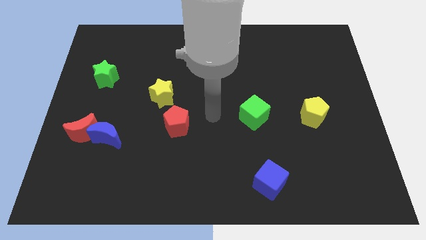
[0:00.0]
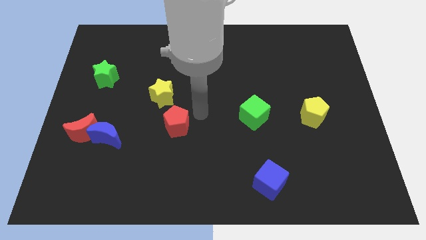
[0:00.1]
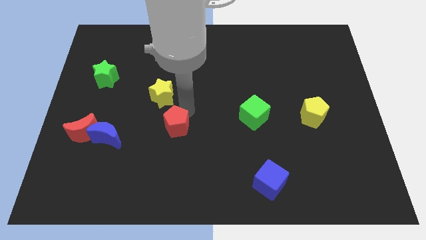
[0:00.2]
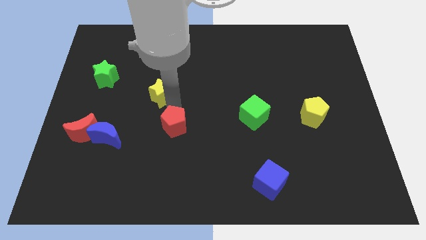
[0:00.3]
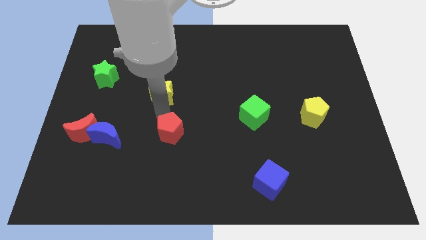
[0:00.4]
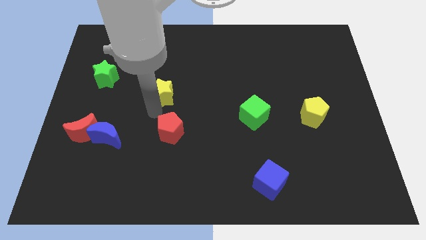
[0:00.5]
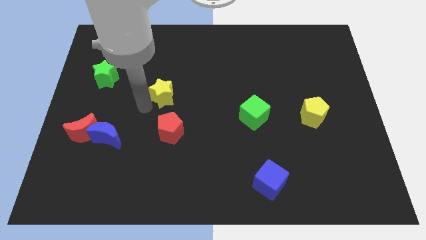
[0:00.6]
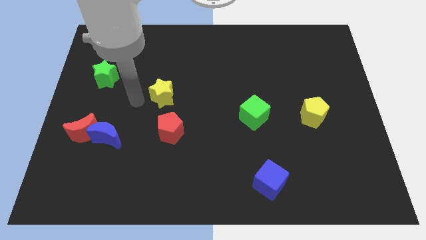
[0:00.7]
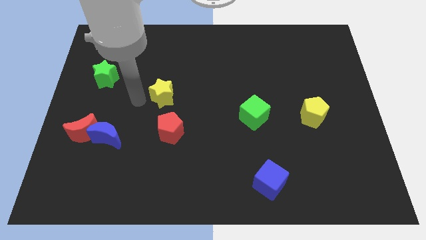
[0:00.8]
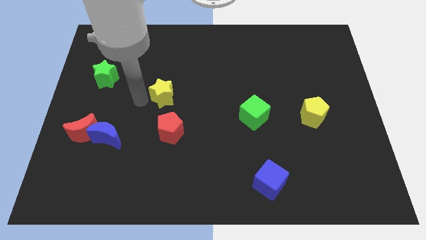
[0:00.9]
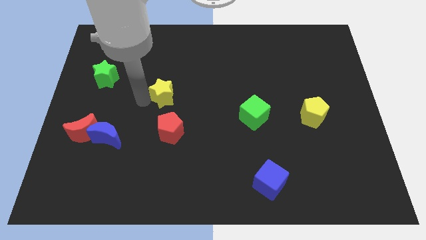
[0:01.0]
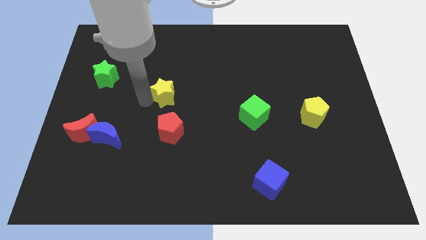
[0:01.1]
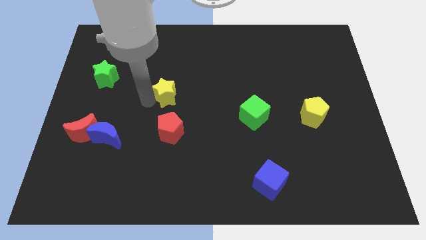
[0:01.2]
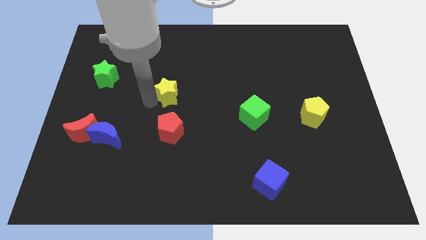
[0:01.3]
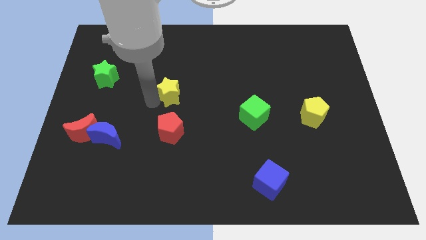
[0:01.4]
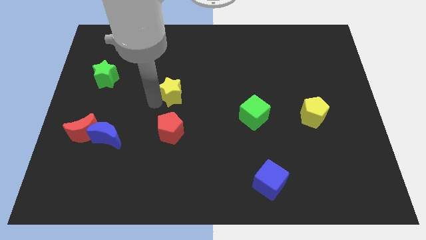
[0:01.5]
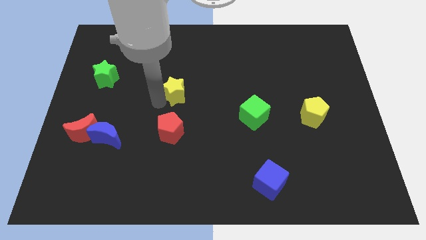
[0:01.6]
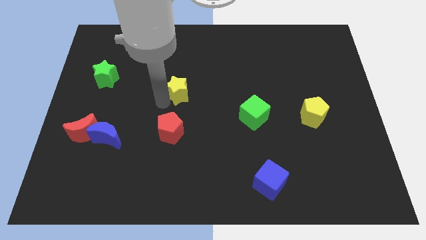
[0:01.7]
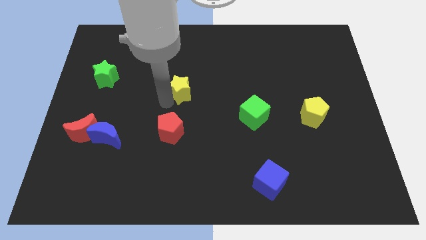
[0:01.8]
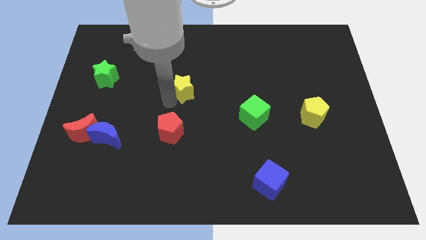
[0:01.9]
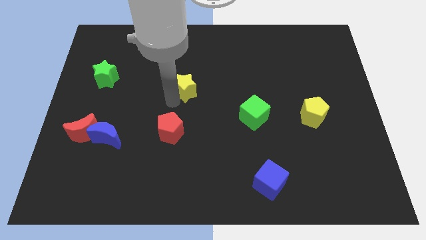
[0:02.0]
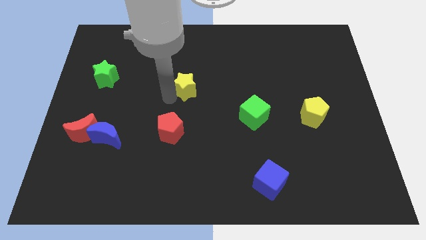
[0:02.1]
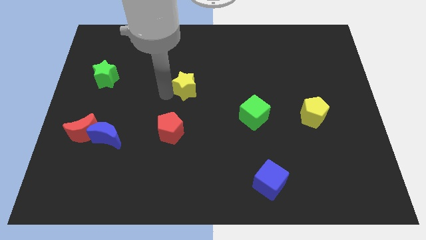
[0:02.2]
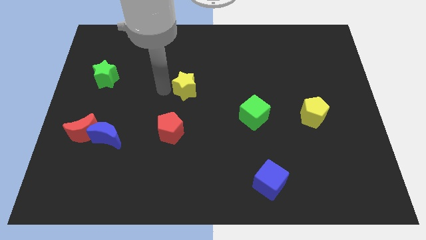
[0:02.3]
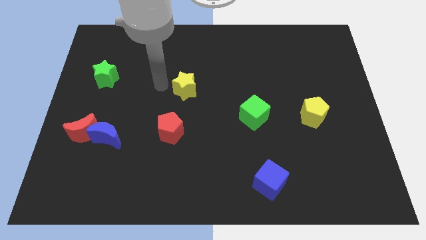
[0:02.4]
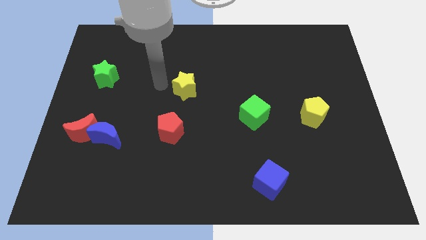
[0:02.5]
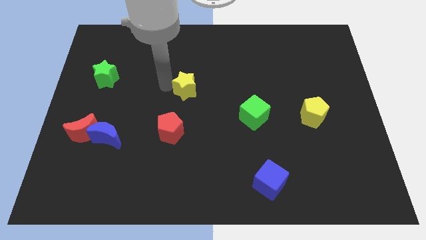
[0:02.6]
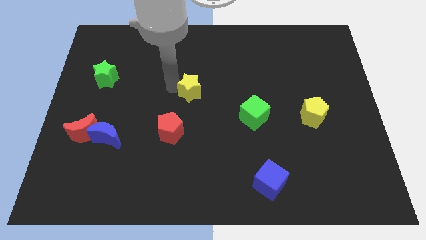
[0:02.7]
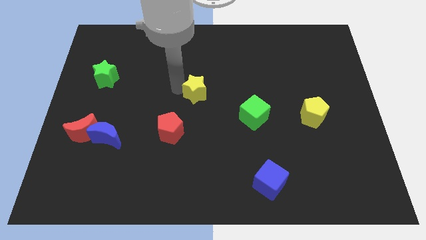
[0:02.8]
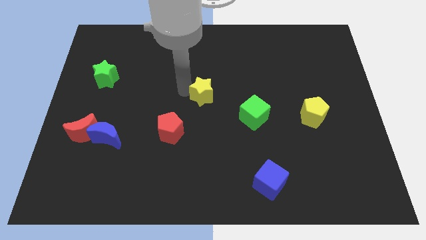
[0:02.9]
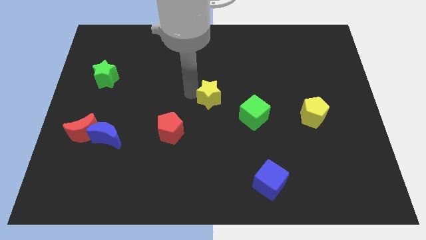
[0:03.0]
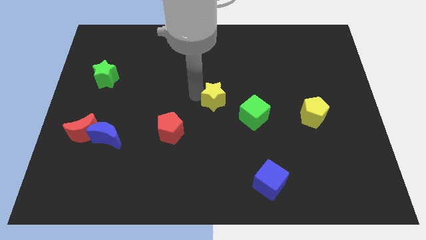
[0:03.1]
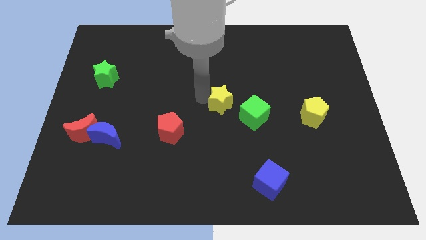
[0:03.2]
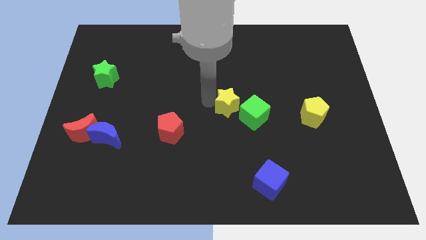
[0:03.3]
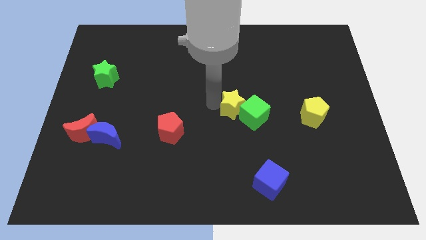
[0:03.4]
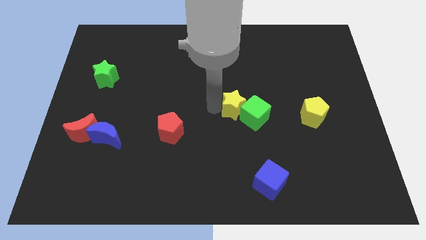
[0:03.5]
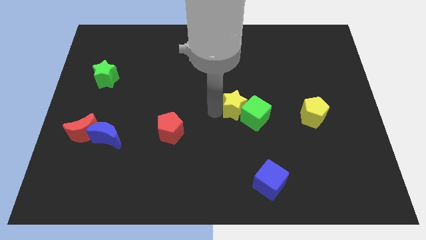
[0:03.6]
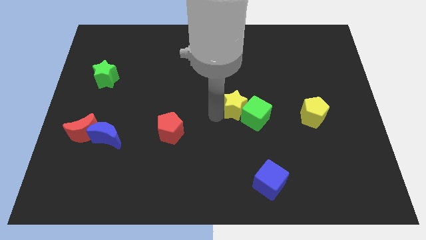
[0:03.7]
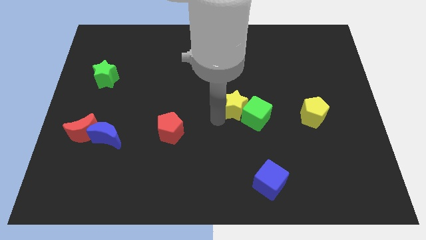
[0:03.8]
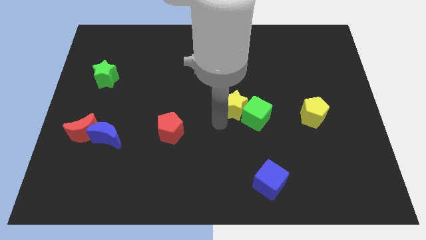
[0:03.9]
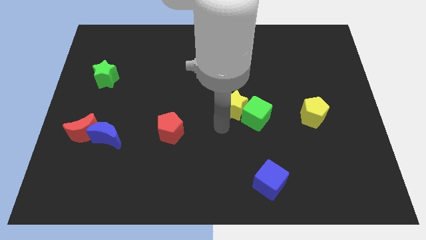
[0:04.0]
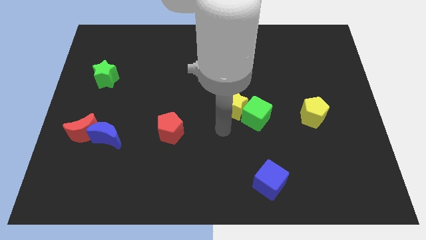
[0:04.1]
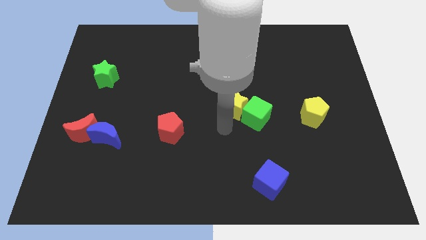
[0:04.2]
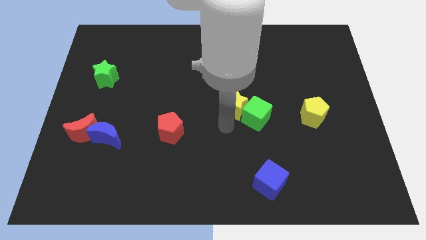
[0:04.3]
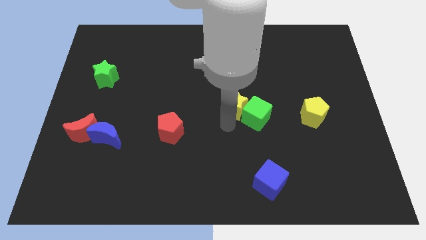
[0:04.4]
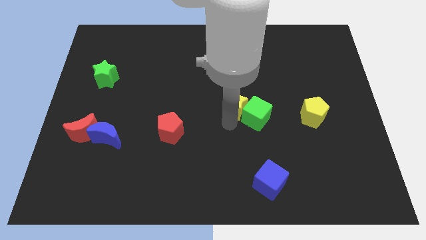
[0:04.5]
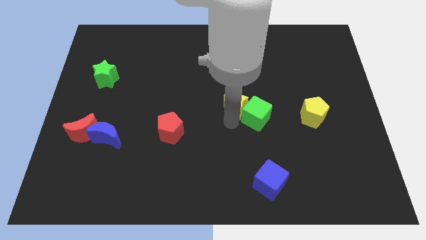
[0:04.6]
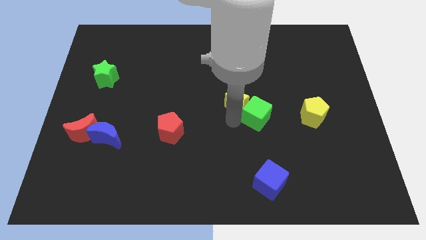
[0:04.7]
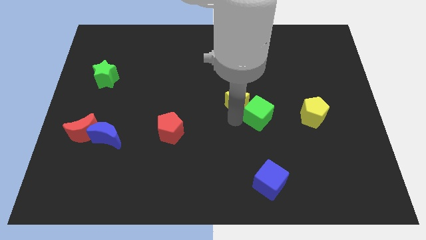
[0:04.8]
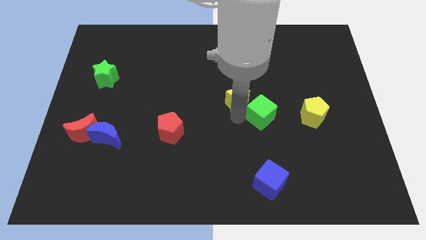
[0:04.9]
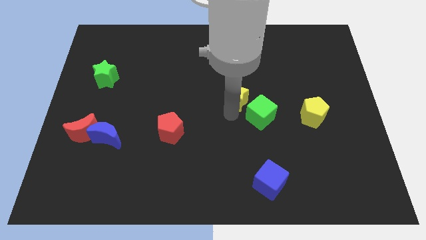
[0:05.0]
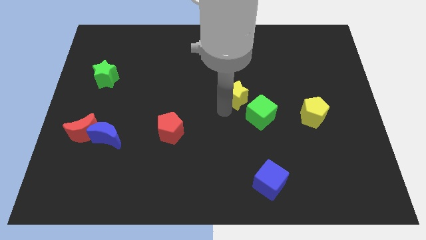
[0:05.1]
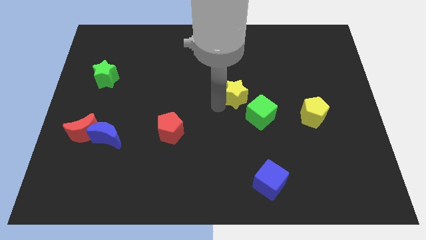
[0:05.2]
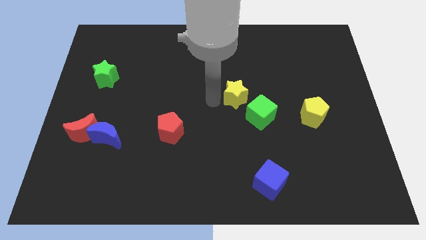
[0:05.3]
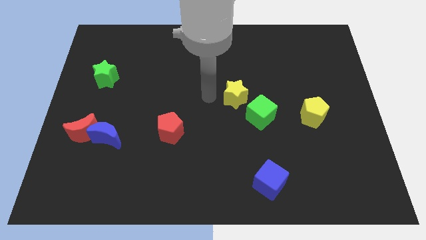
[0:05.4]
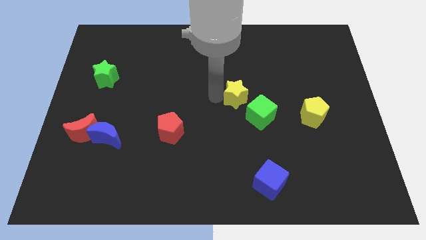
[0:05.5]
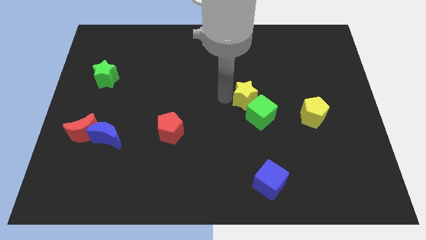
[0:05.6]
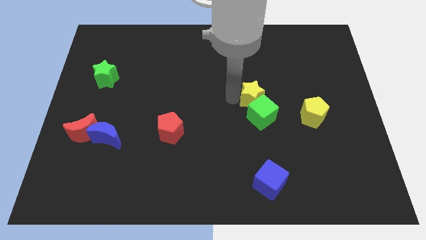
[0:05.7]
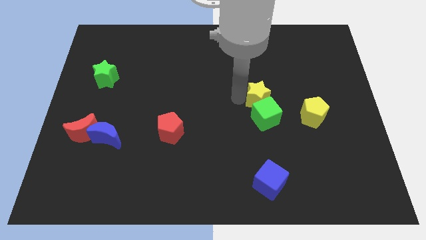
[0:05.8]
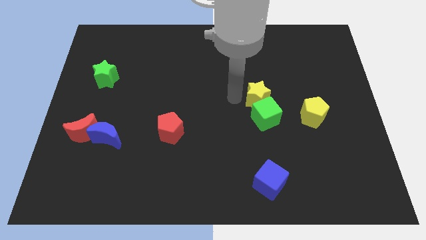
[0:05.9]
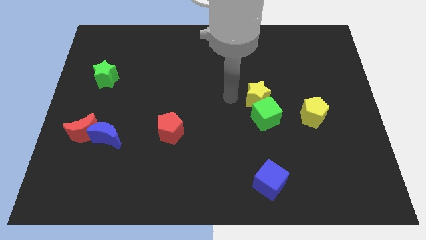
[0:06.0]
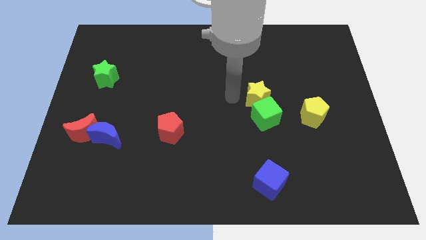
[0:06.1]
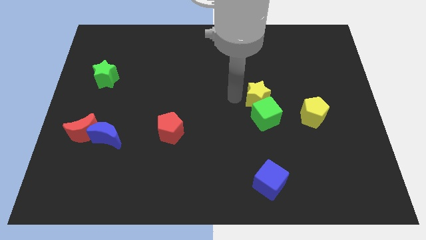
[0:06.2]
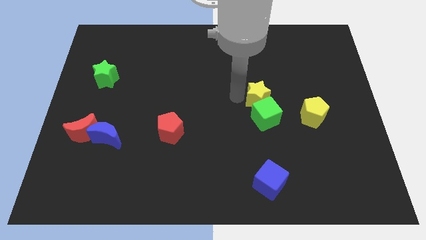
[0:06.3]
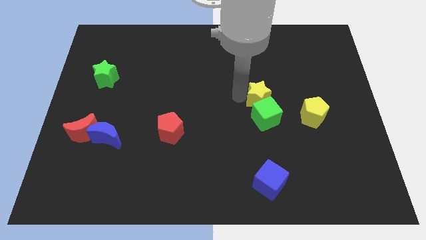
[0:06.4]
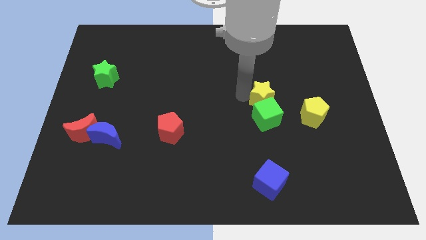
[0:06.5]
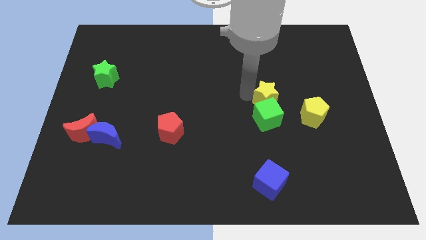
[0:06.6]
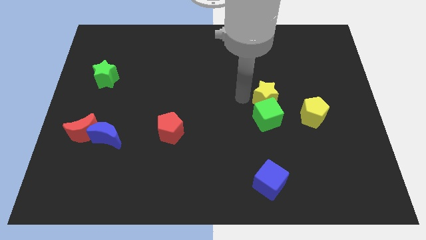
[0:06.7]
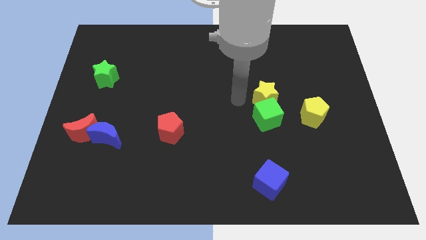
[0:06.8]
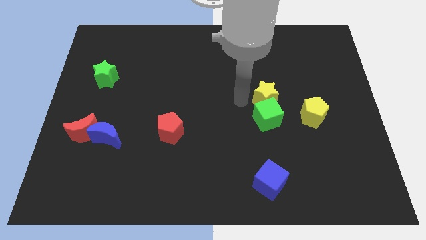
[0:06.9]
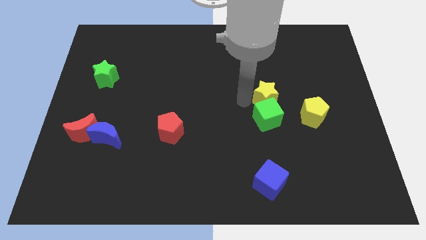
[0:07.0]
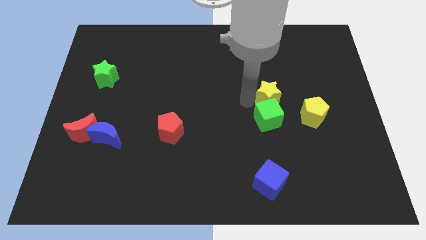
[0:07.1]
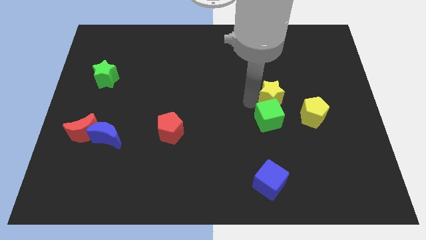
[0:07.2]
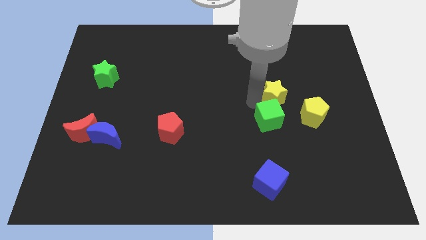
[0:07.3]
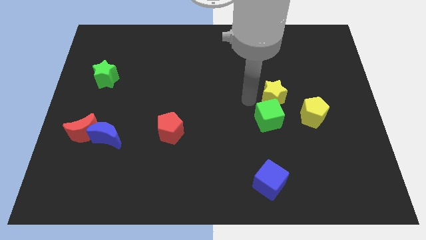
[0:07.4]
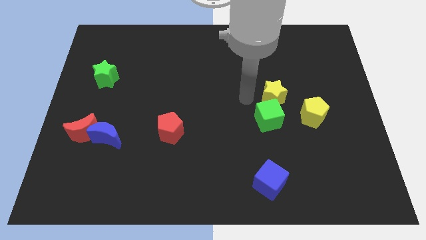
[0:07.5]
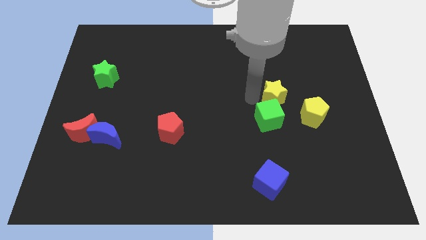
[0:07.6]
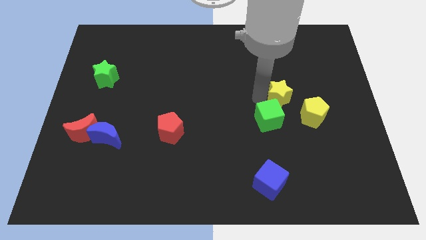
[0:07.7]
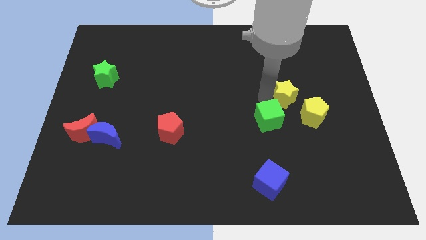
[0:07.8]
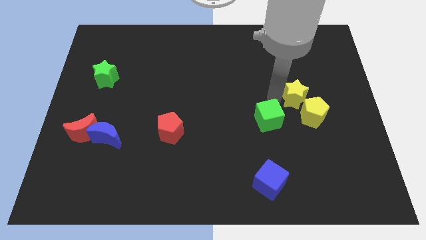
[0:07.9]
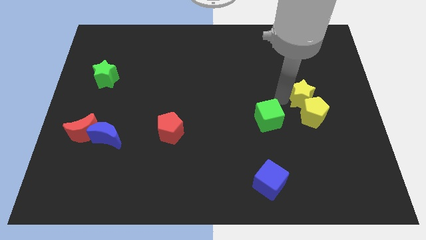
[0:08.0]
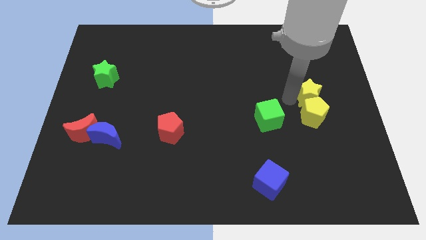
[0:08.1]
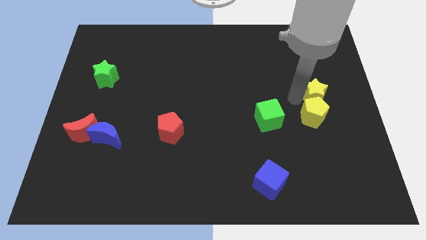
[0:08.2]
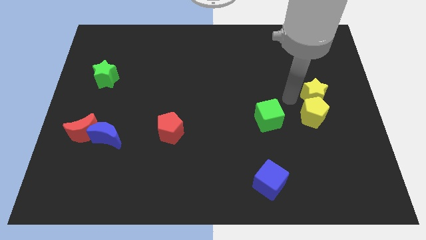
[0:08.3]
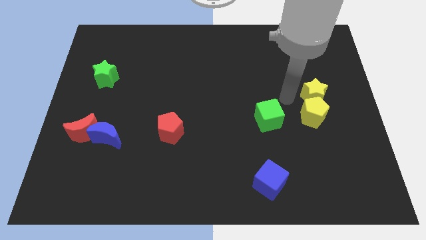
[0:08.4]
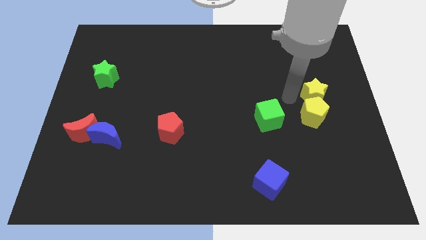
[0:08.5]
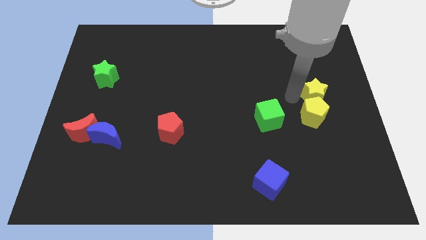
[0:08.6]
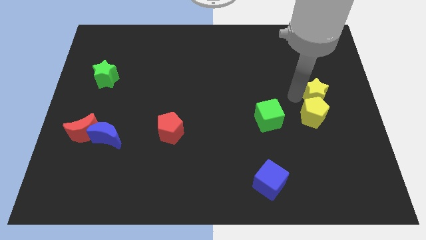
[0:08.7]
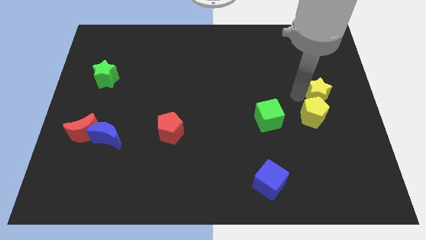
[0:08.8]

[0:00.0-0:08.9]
move the yellow star to the right side
